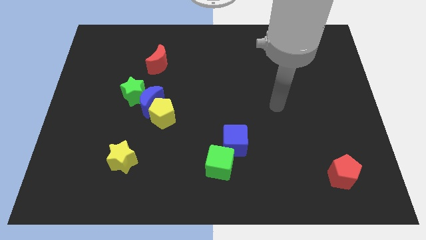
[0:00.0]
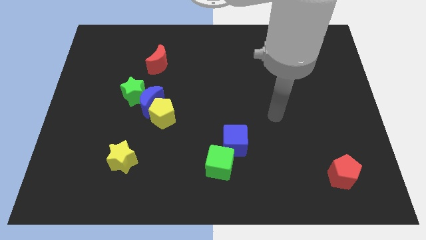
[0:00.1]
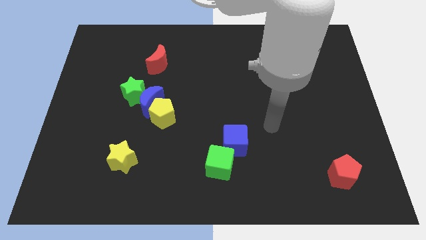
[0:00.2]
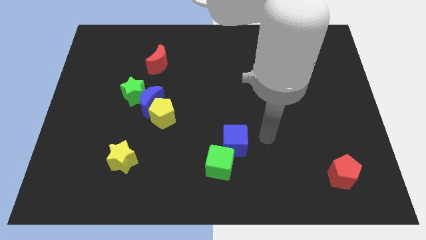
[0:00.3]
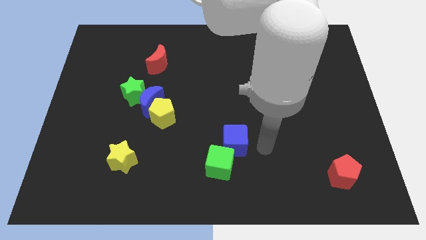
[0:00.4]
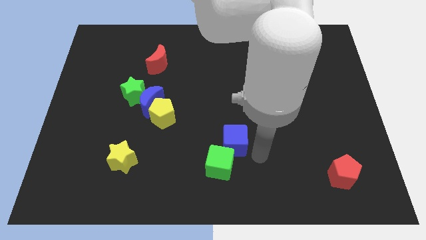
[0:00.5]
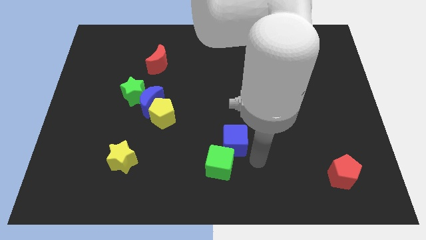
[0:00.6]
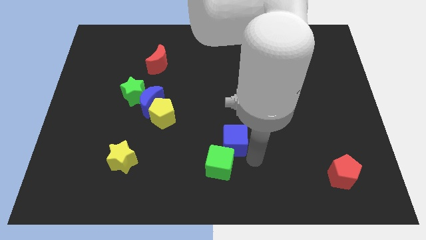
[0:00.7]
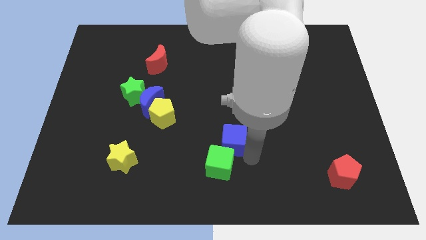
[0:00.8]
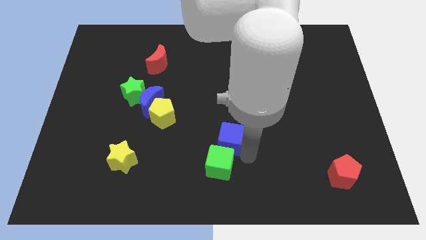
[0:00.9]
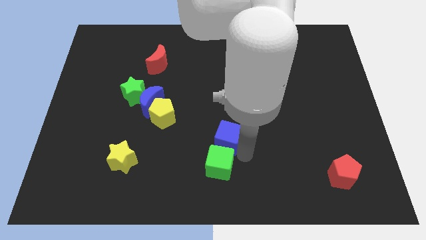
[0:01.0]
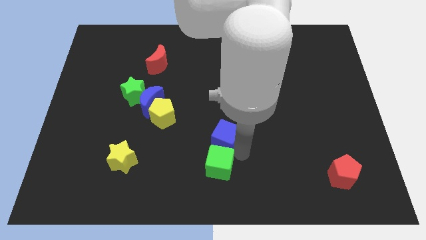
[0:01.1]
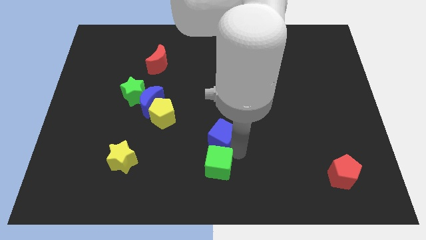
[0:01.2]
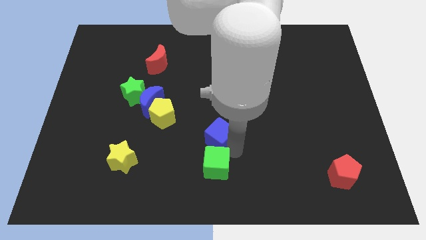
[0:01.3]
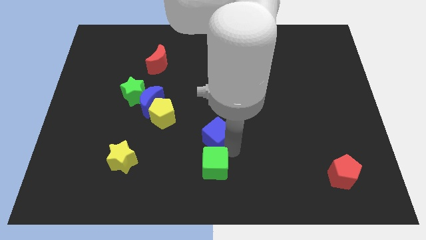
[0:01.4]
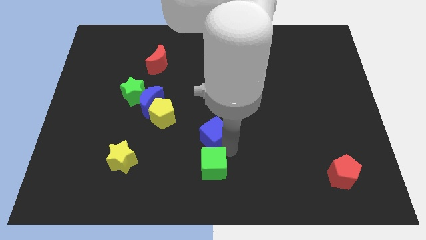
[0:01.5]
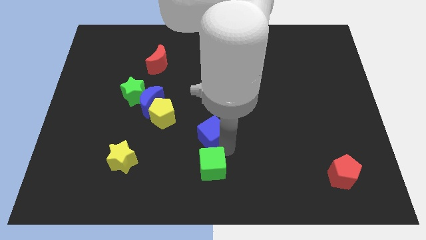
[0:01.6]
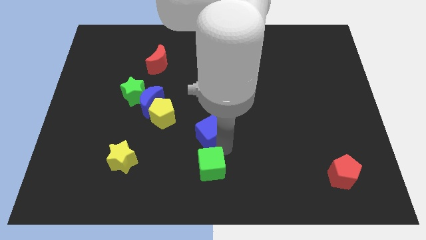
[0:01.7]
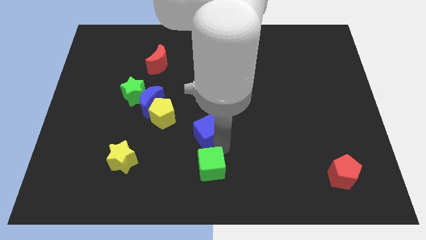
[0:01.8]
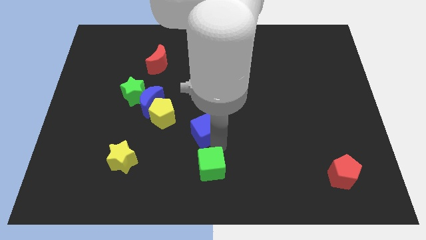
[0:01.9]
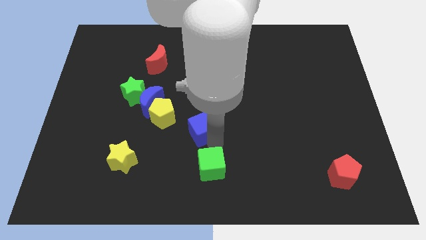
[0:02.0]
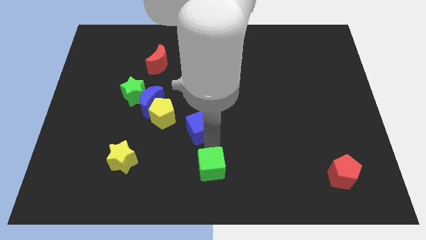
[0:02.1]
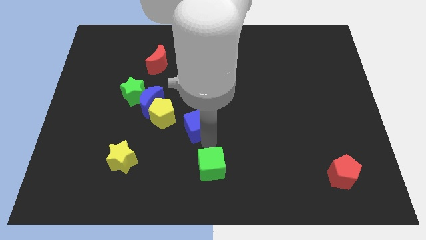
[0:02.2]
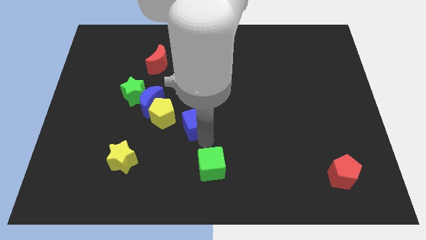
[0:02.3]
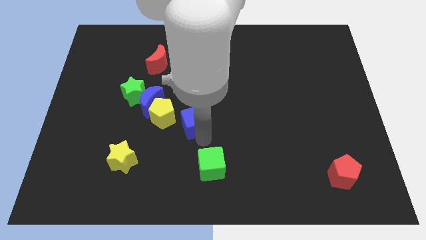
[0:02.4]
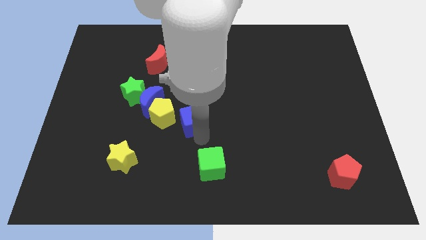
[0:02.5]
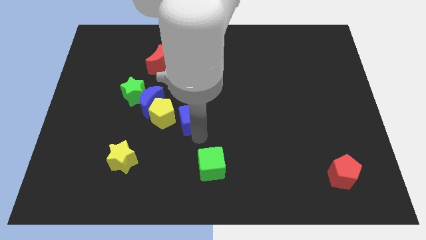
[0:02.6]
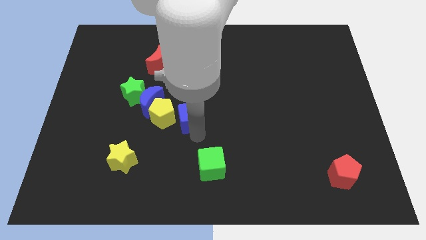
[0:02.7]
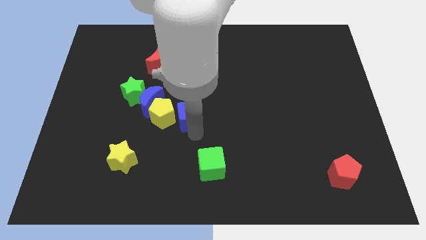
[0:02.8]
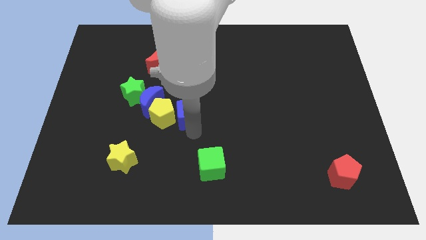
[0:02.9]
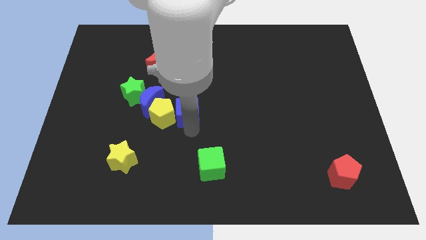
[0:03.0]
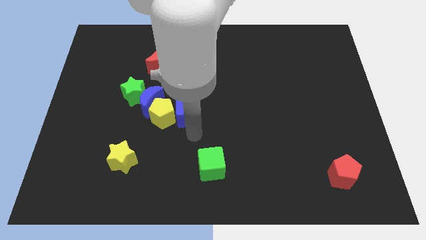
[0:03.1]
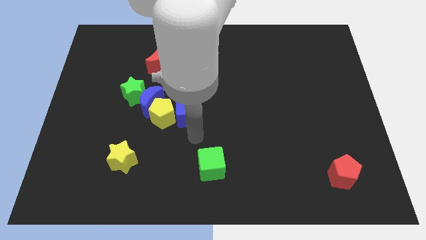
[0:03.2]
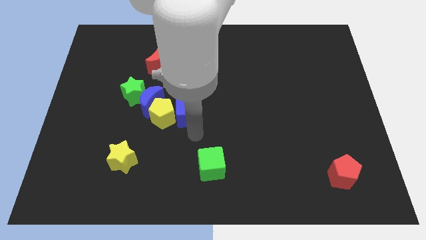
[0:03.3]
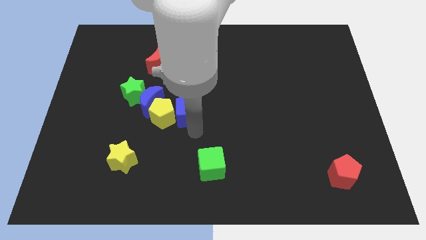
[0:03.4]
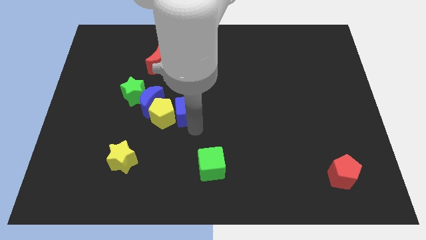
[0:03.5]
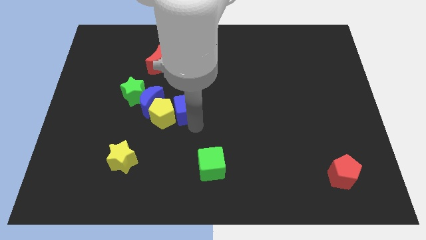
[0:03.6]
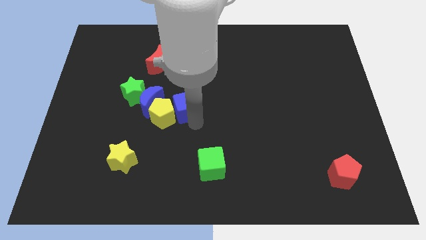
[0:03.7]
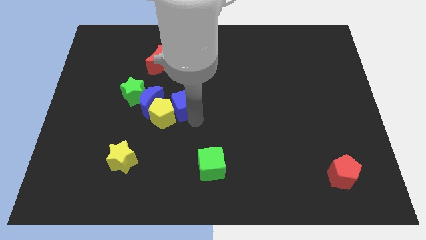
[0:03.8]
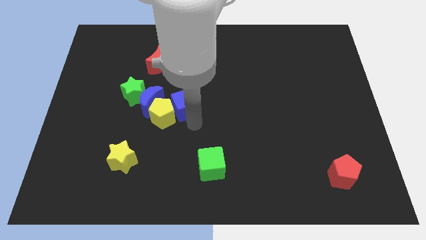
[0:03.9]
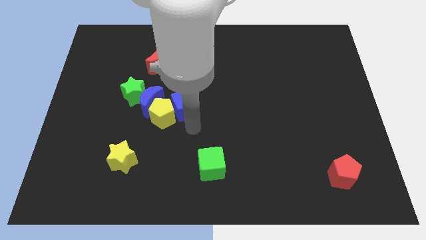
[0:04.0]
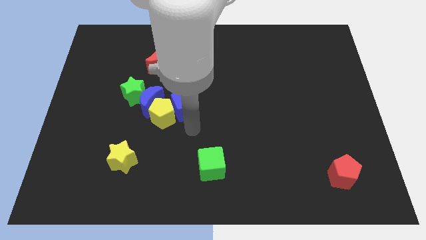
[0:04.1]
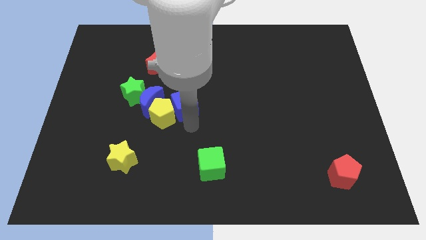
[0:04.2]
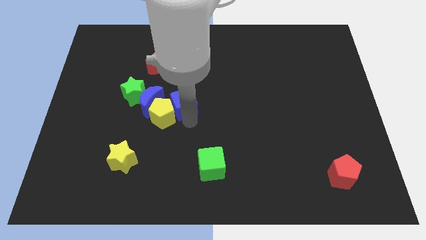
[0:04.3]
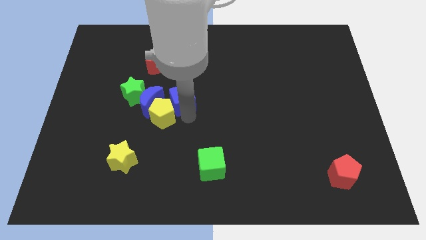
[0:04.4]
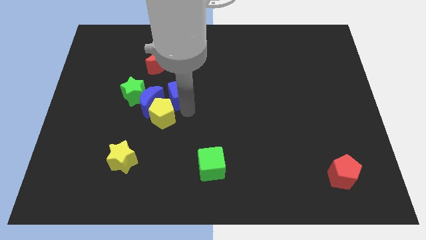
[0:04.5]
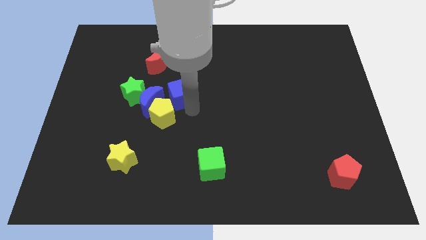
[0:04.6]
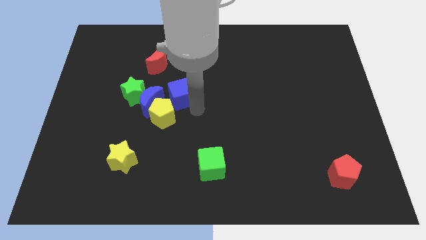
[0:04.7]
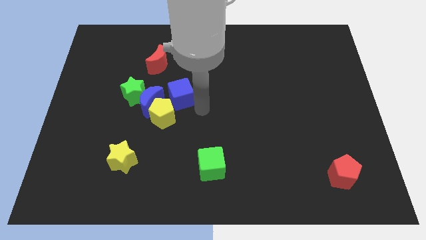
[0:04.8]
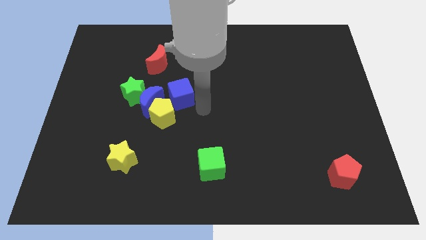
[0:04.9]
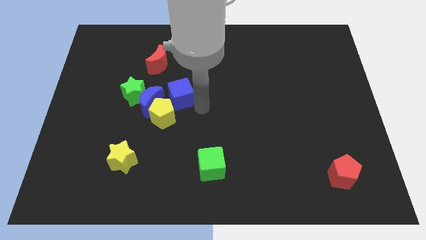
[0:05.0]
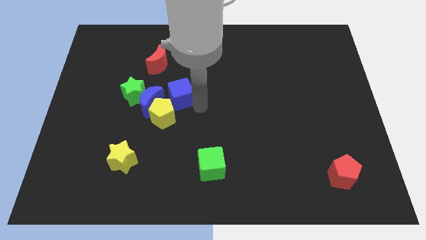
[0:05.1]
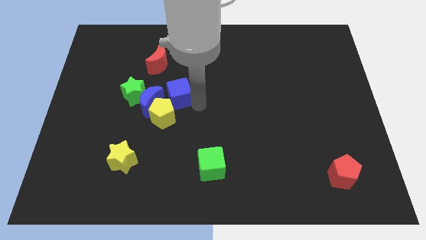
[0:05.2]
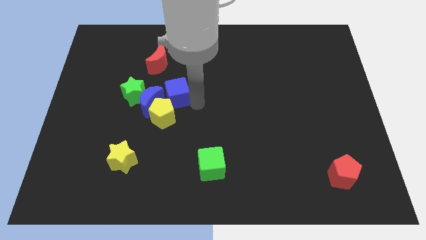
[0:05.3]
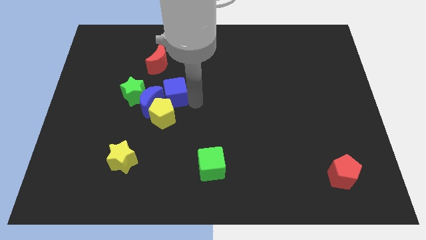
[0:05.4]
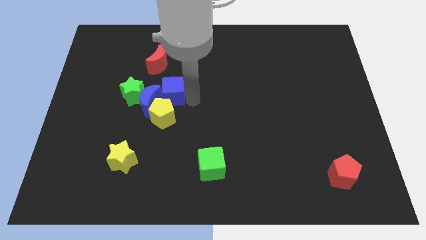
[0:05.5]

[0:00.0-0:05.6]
move the blue cube upwards and then left

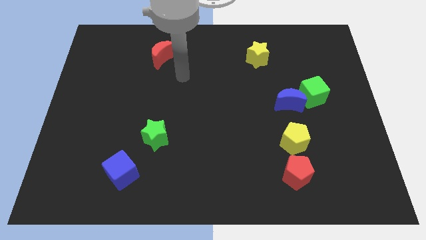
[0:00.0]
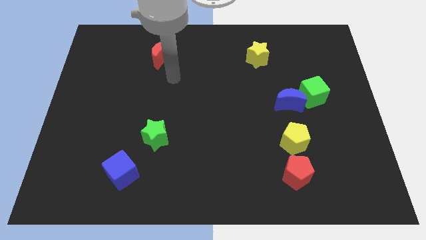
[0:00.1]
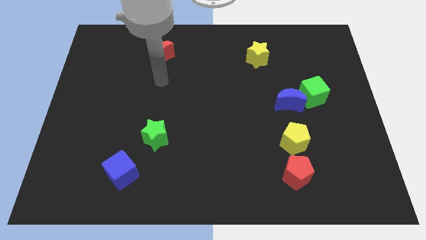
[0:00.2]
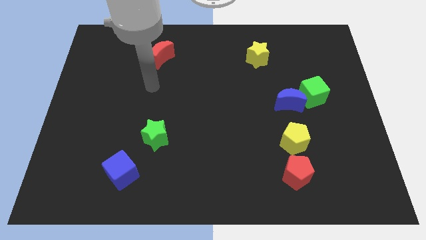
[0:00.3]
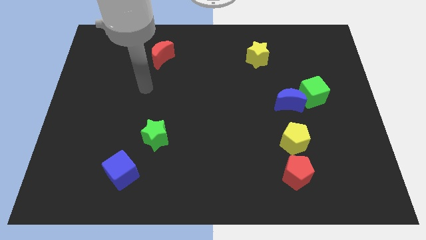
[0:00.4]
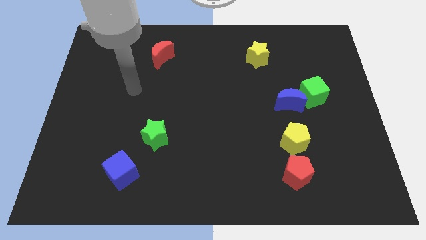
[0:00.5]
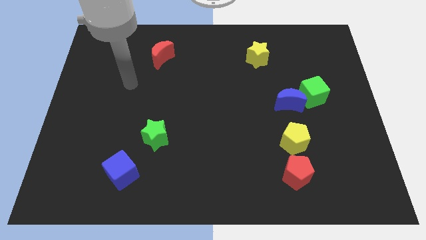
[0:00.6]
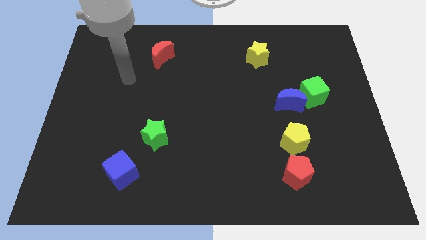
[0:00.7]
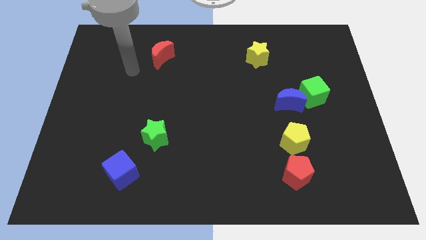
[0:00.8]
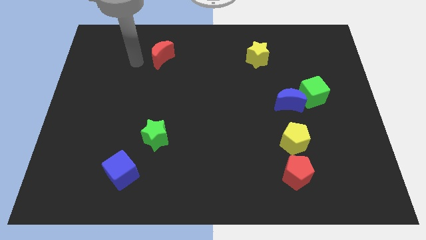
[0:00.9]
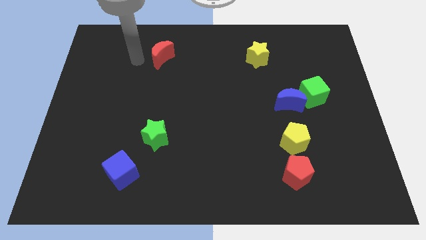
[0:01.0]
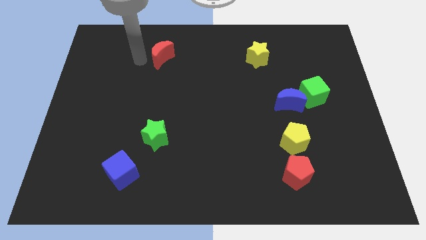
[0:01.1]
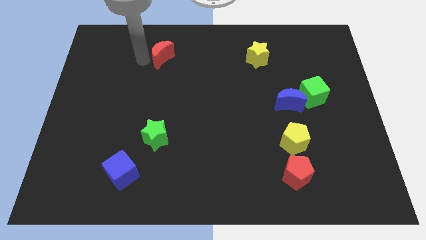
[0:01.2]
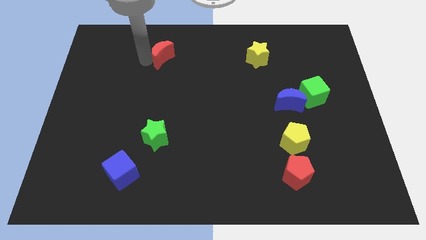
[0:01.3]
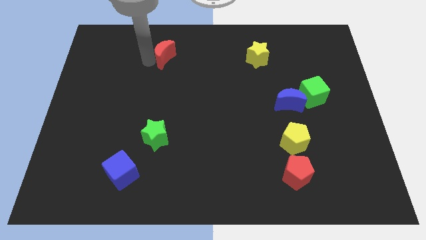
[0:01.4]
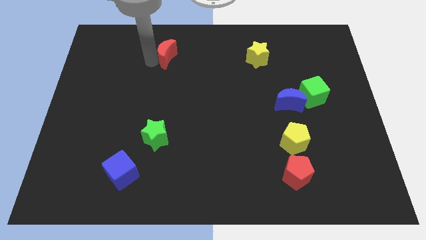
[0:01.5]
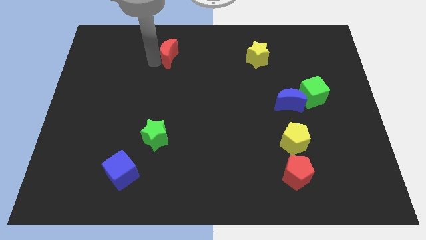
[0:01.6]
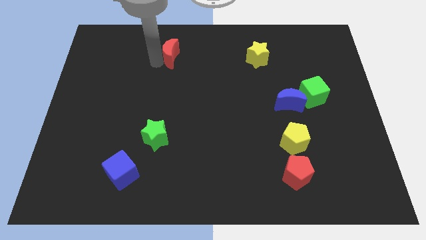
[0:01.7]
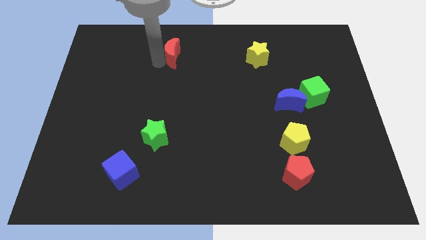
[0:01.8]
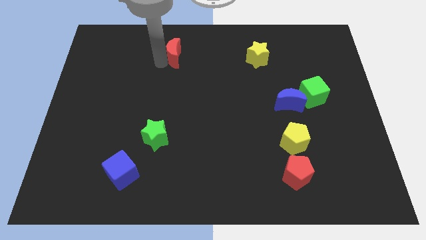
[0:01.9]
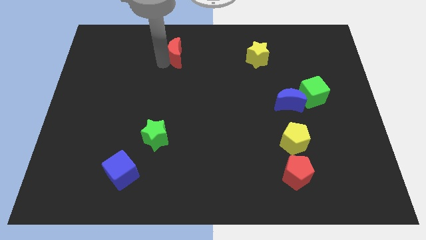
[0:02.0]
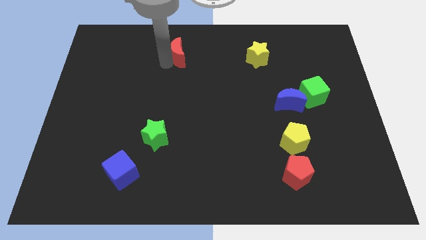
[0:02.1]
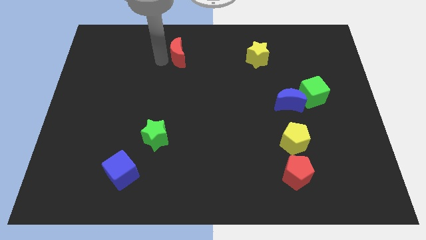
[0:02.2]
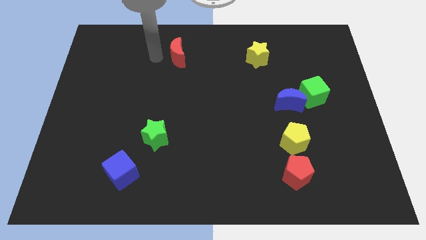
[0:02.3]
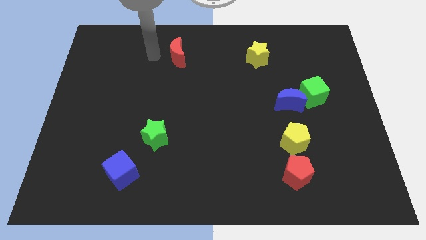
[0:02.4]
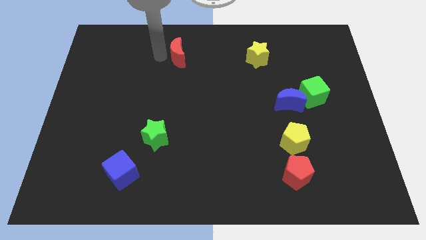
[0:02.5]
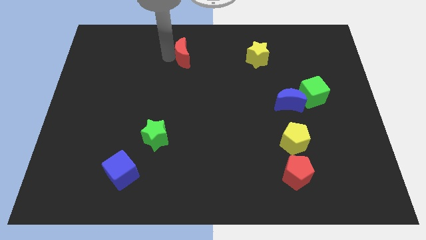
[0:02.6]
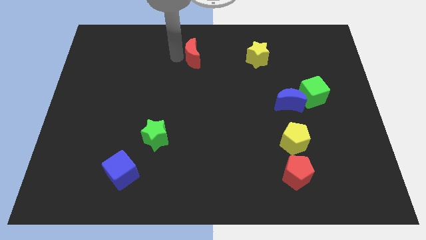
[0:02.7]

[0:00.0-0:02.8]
move the red moon a little to the right

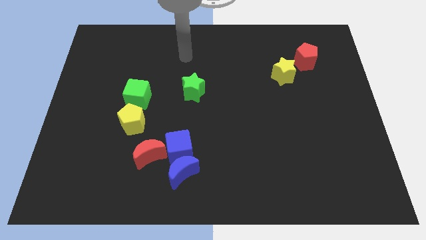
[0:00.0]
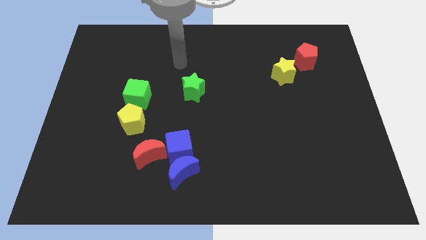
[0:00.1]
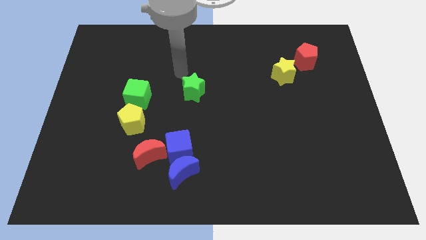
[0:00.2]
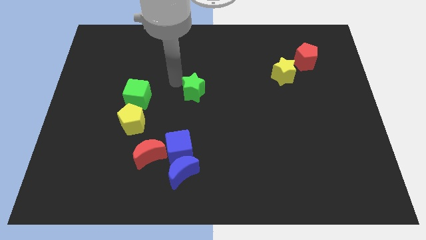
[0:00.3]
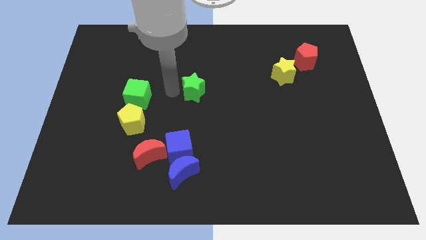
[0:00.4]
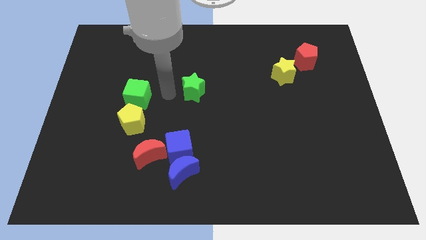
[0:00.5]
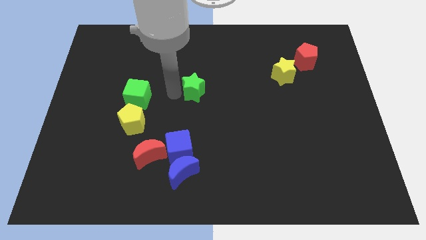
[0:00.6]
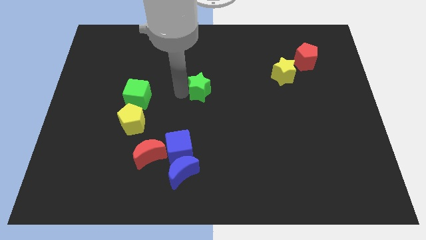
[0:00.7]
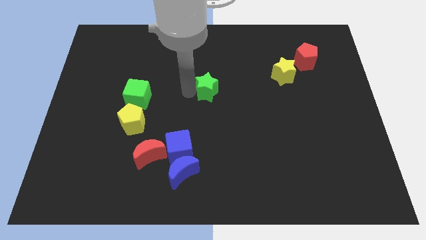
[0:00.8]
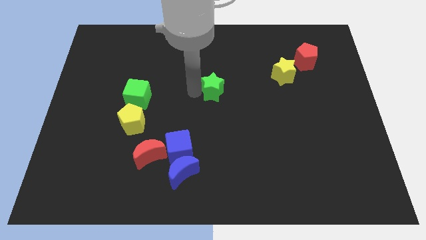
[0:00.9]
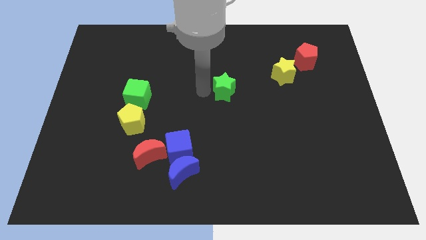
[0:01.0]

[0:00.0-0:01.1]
slightly move the green star to the right
